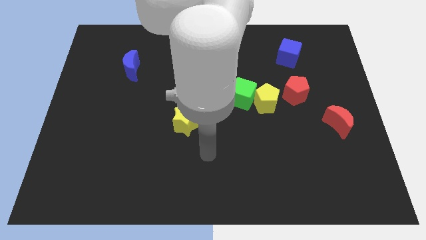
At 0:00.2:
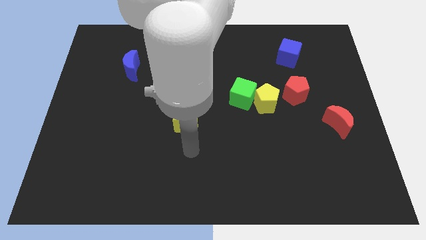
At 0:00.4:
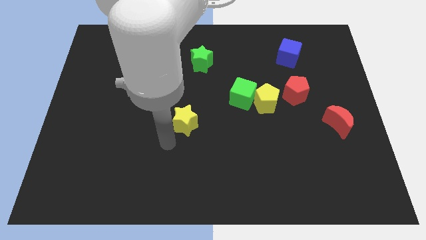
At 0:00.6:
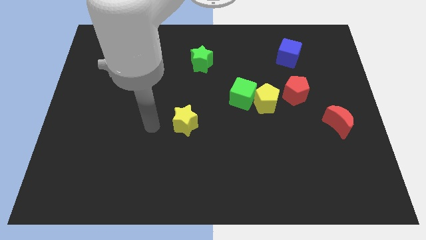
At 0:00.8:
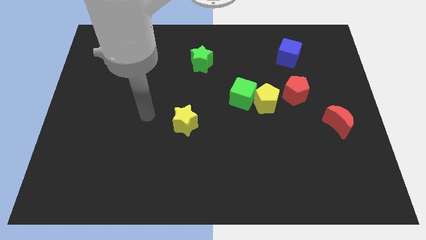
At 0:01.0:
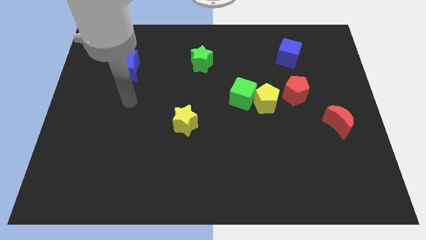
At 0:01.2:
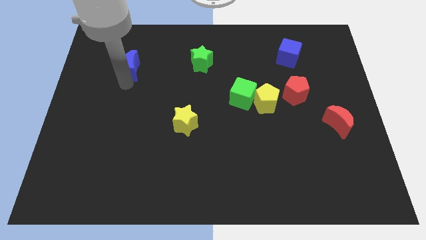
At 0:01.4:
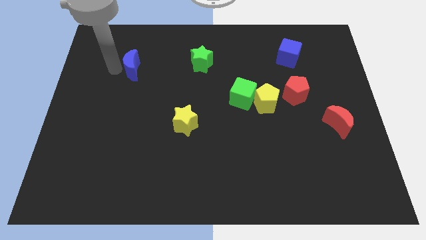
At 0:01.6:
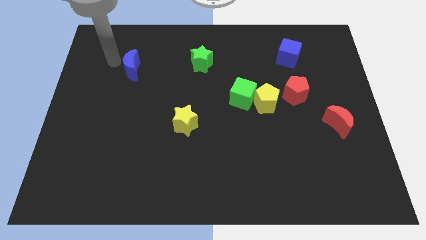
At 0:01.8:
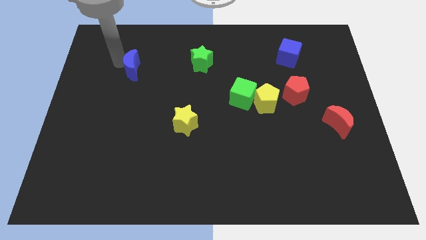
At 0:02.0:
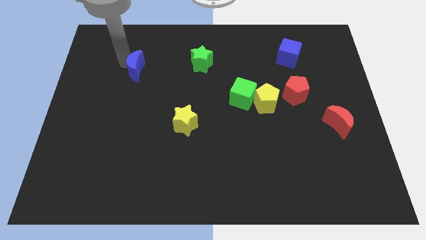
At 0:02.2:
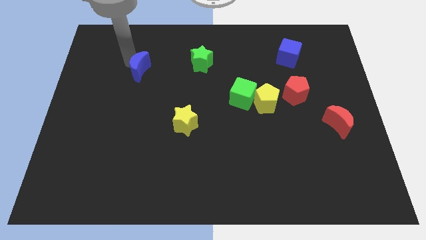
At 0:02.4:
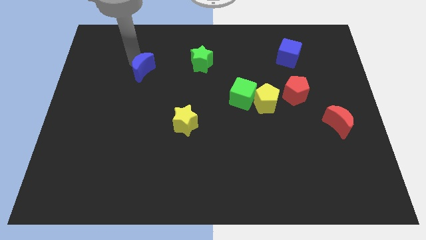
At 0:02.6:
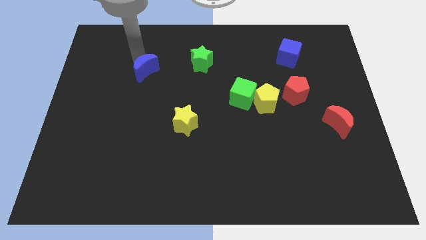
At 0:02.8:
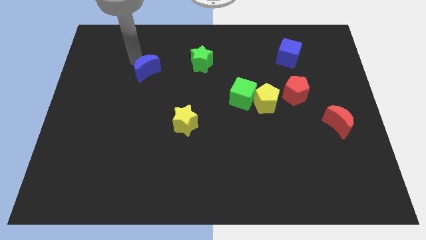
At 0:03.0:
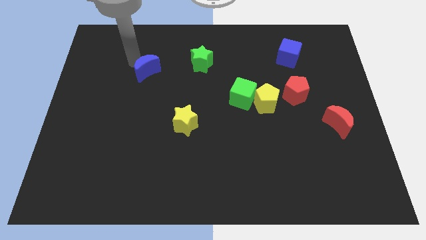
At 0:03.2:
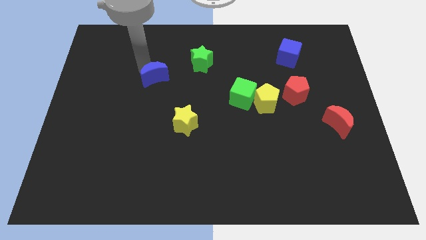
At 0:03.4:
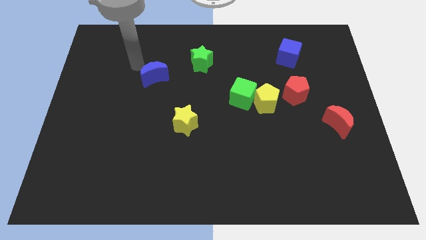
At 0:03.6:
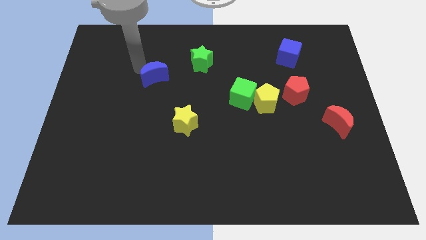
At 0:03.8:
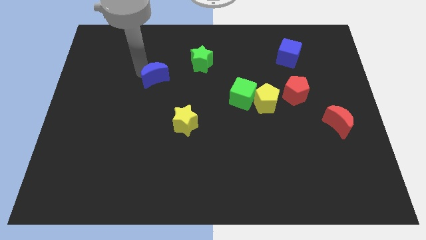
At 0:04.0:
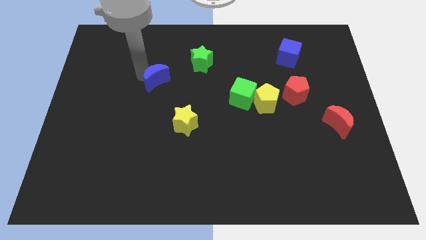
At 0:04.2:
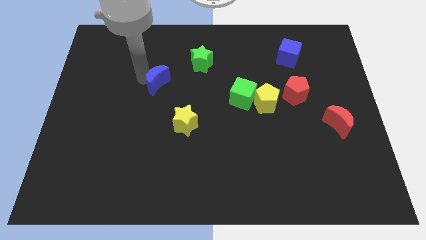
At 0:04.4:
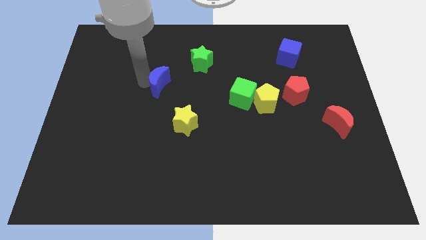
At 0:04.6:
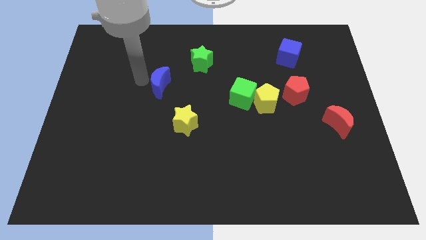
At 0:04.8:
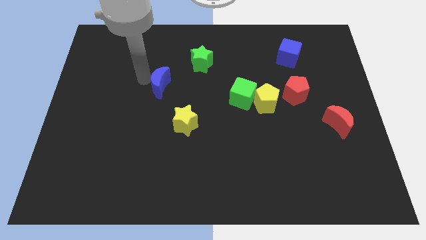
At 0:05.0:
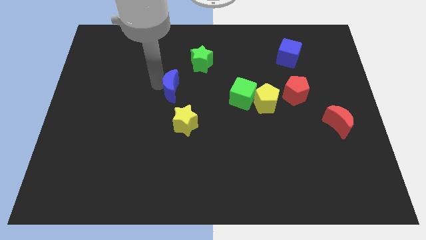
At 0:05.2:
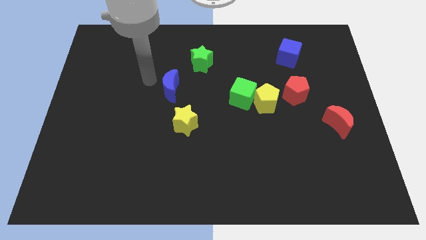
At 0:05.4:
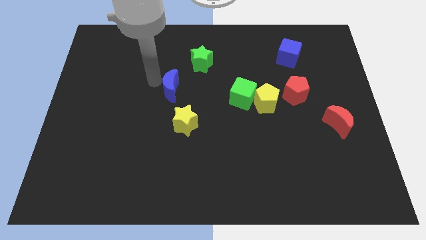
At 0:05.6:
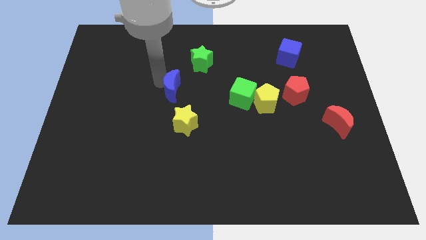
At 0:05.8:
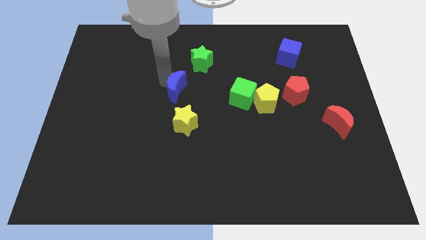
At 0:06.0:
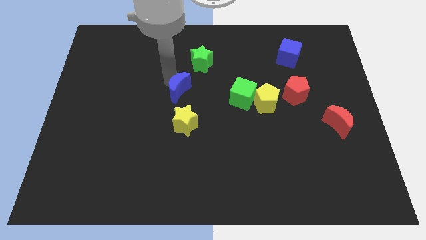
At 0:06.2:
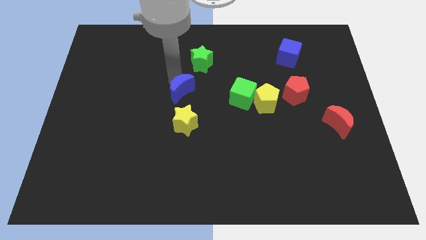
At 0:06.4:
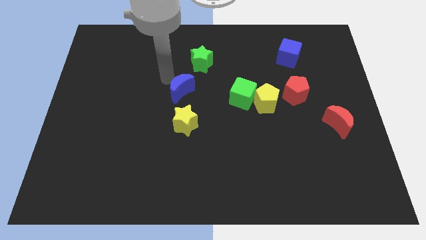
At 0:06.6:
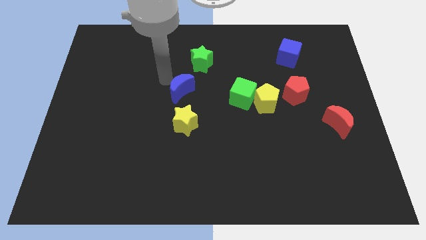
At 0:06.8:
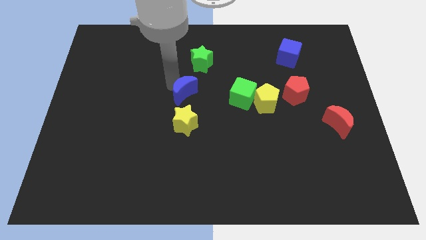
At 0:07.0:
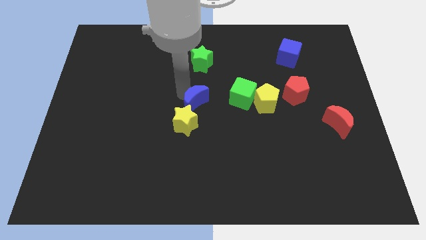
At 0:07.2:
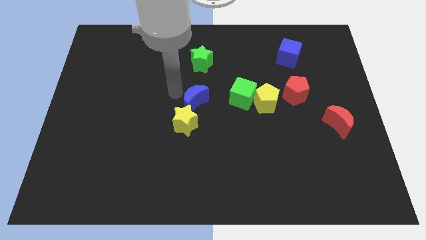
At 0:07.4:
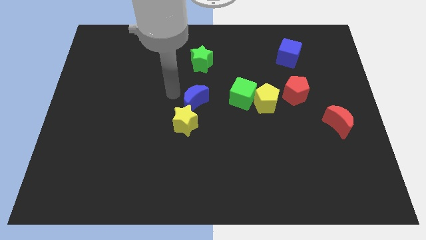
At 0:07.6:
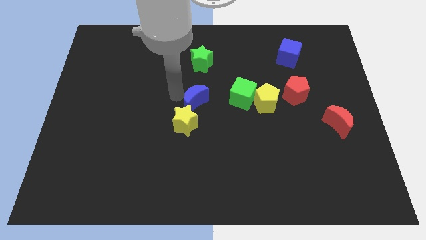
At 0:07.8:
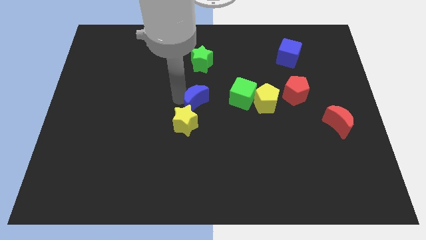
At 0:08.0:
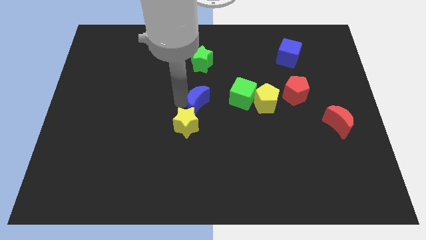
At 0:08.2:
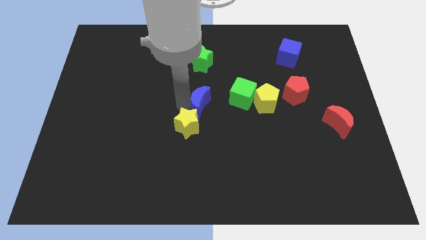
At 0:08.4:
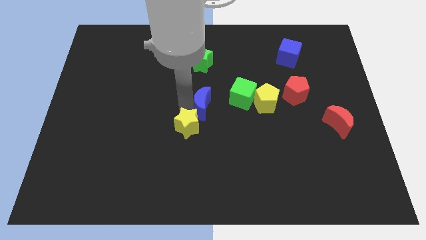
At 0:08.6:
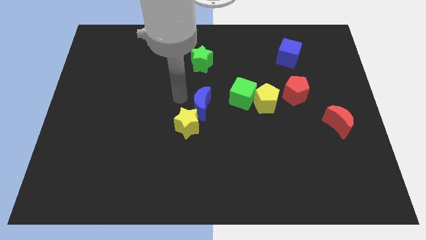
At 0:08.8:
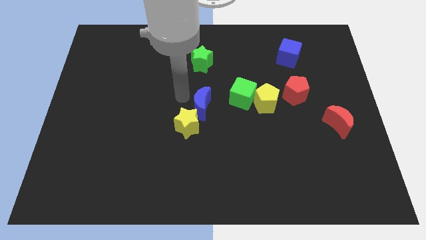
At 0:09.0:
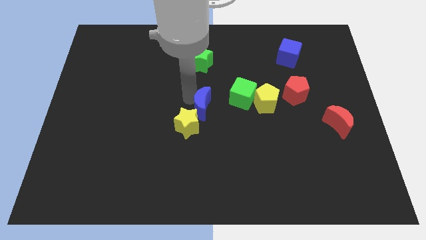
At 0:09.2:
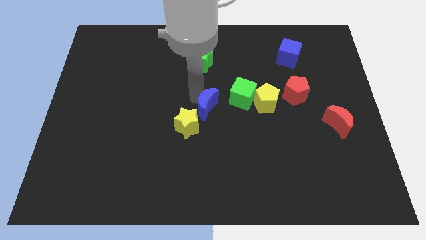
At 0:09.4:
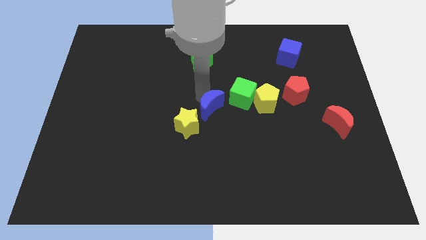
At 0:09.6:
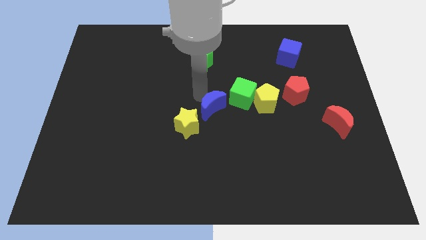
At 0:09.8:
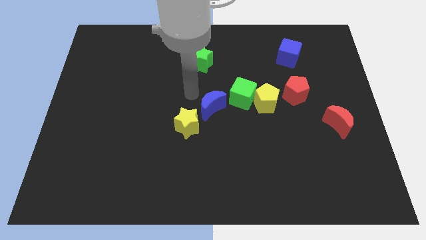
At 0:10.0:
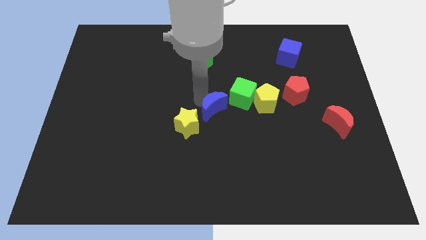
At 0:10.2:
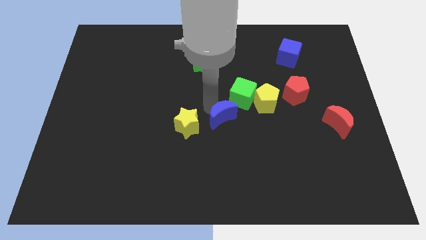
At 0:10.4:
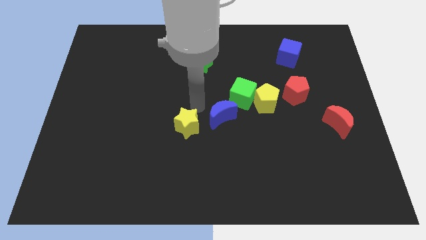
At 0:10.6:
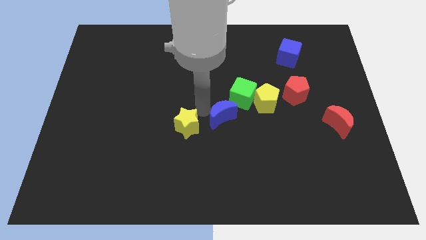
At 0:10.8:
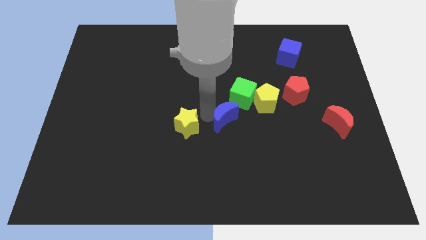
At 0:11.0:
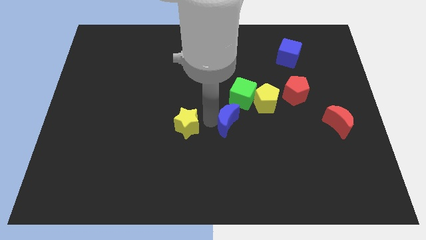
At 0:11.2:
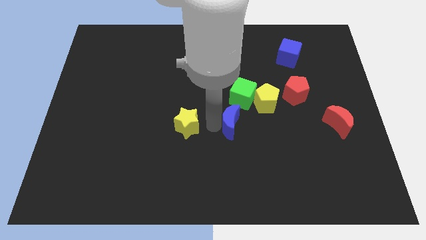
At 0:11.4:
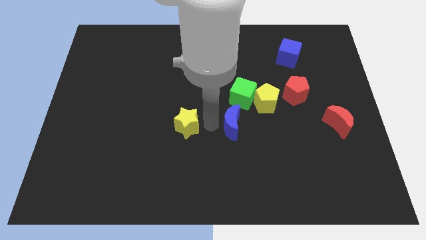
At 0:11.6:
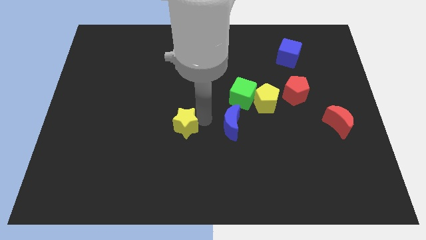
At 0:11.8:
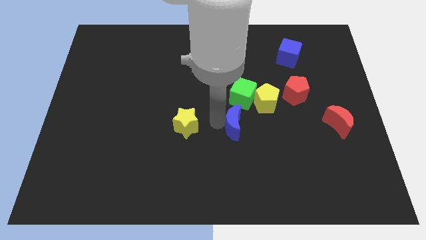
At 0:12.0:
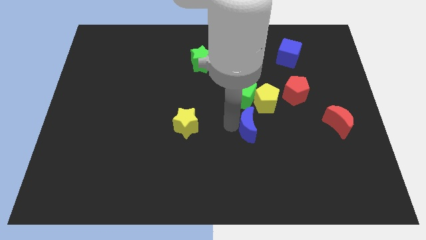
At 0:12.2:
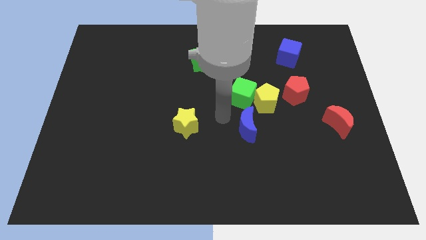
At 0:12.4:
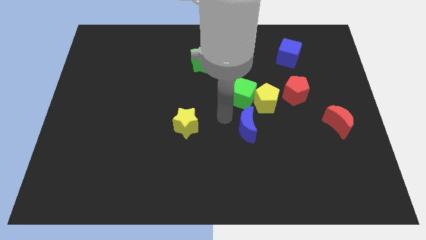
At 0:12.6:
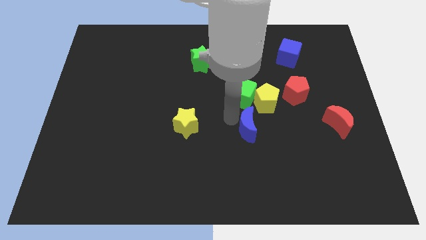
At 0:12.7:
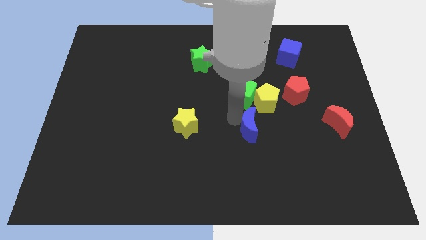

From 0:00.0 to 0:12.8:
put the blue moon to the bottom of the yellow pentagon

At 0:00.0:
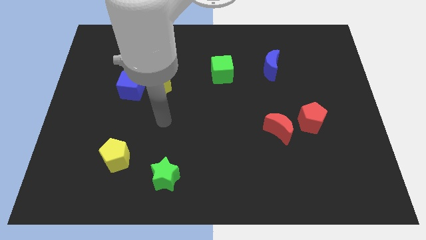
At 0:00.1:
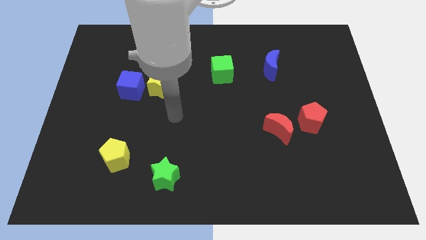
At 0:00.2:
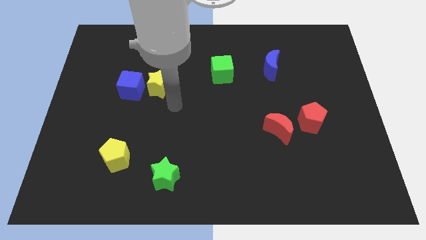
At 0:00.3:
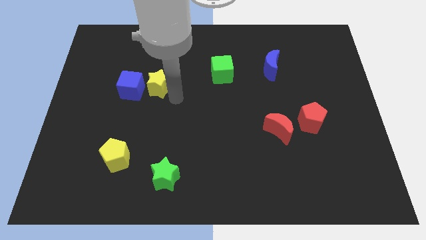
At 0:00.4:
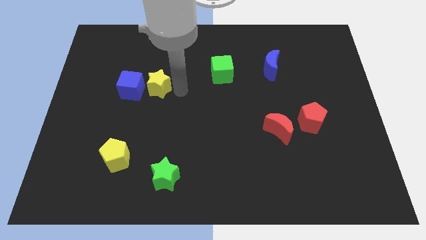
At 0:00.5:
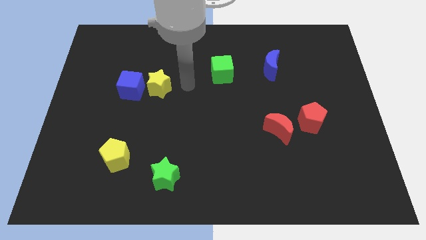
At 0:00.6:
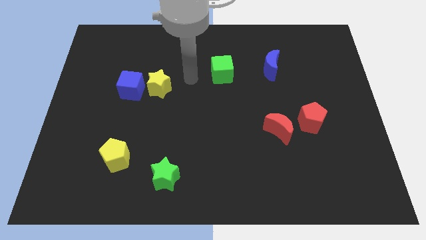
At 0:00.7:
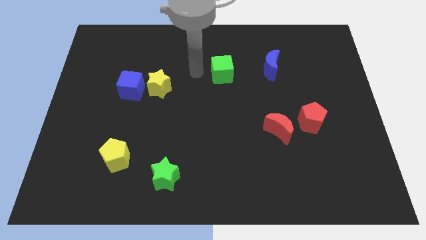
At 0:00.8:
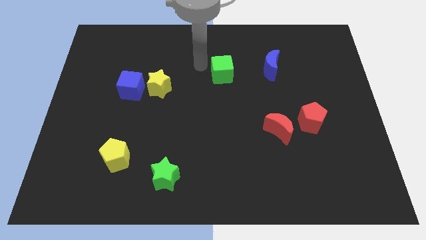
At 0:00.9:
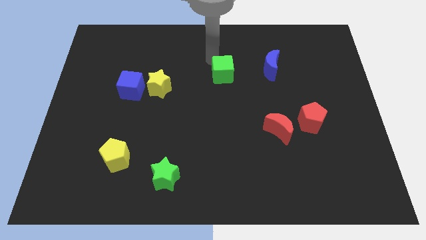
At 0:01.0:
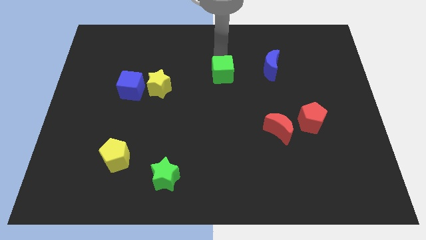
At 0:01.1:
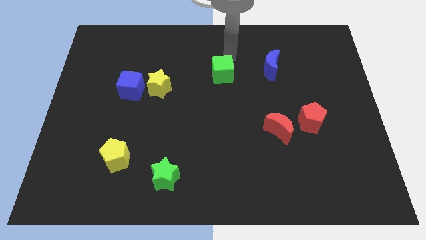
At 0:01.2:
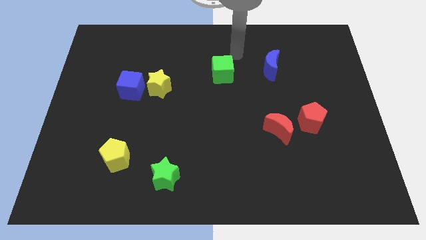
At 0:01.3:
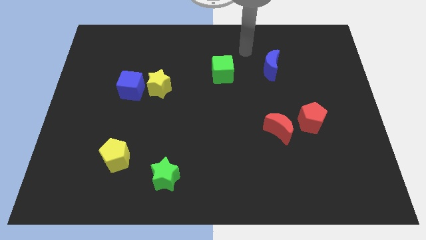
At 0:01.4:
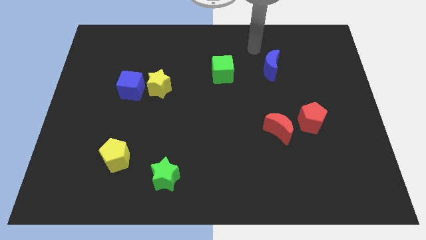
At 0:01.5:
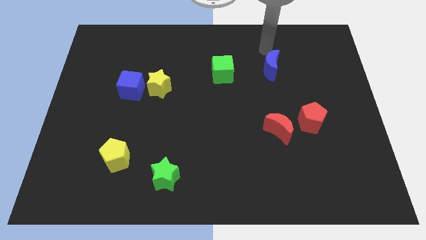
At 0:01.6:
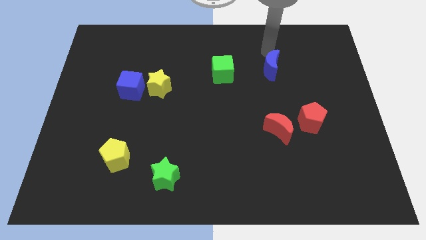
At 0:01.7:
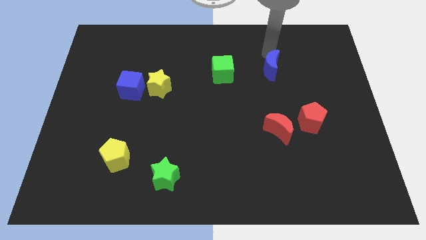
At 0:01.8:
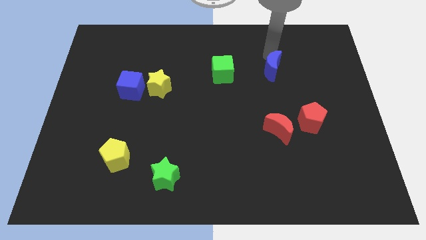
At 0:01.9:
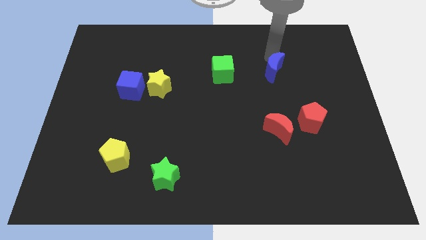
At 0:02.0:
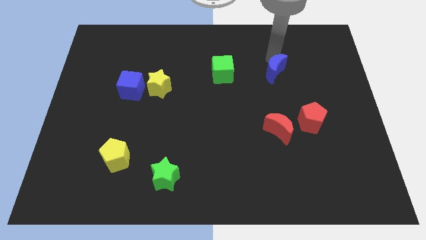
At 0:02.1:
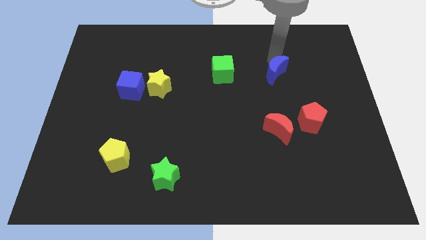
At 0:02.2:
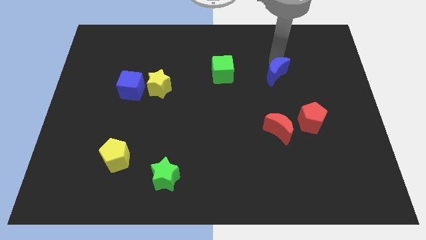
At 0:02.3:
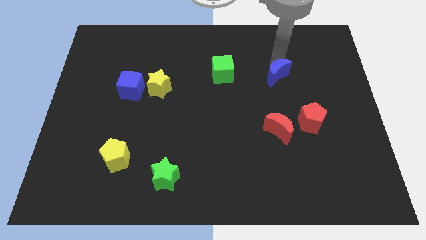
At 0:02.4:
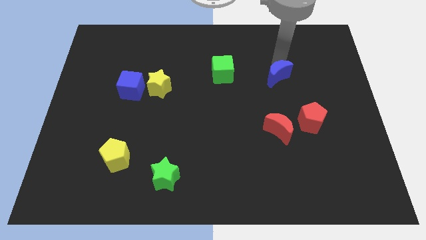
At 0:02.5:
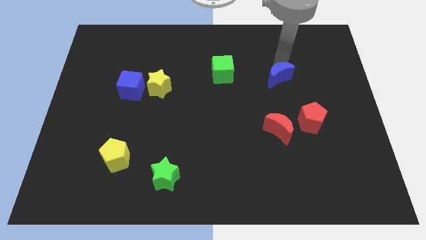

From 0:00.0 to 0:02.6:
push the blue moon to the top side of the red moon
